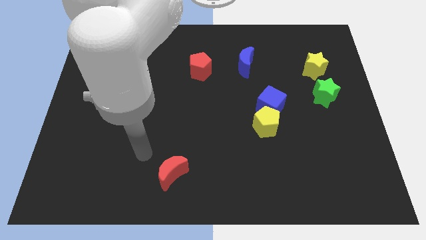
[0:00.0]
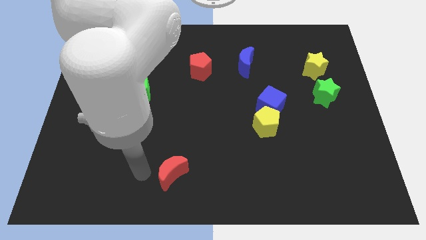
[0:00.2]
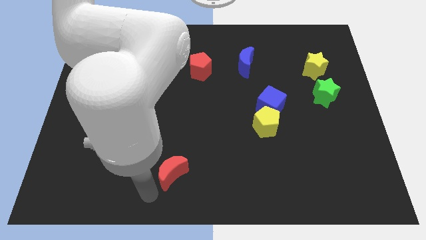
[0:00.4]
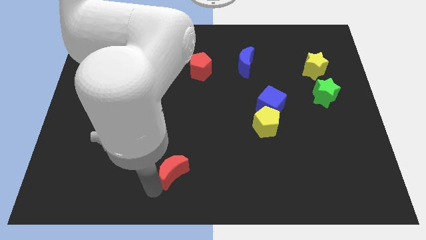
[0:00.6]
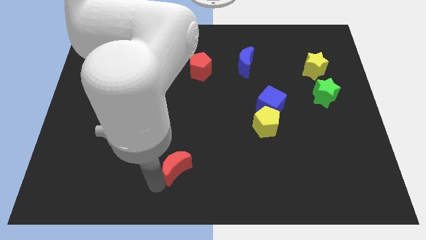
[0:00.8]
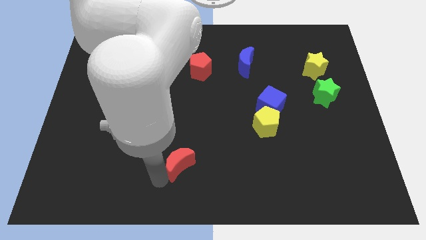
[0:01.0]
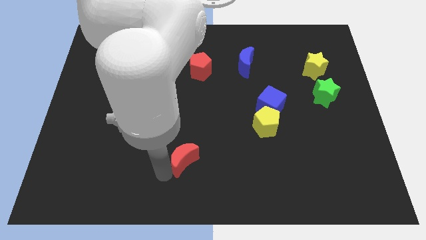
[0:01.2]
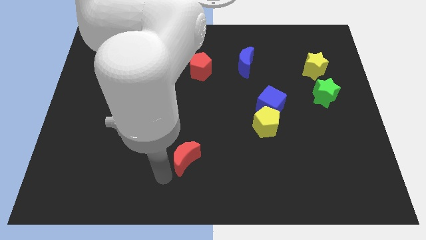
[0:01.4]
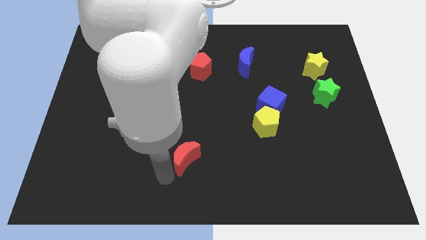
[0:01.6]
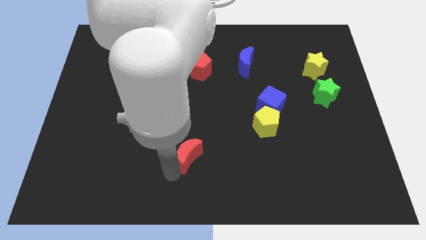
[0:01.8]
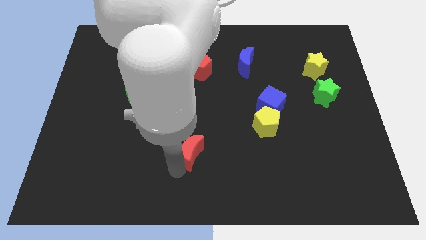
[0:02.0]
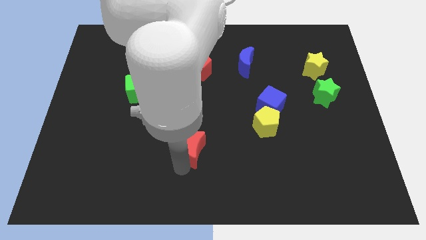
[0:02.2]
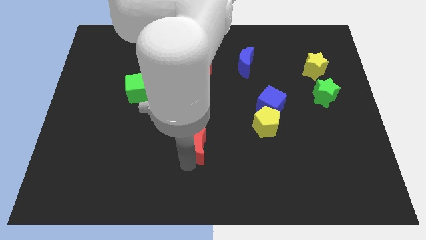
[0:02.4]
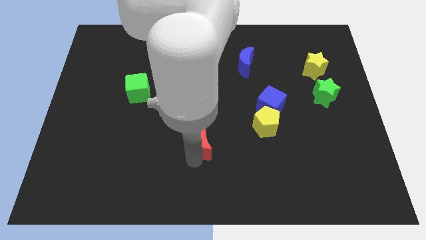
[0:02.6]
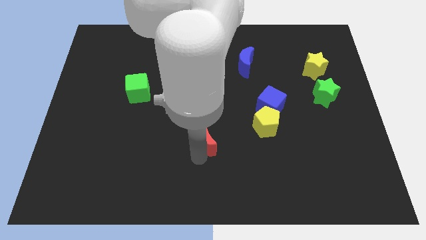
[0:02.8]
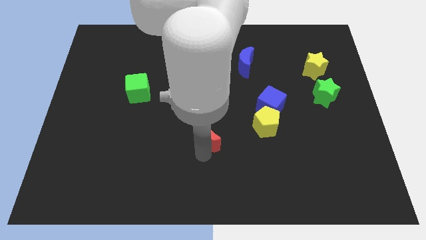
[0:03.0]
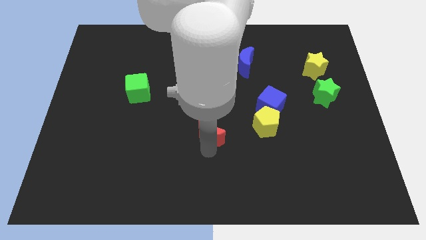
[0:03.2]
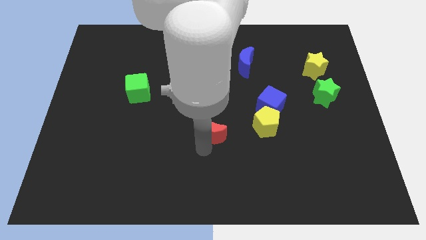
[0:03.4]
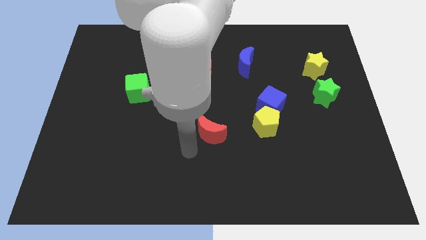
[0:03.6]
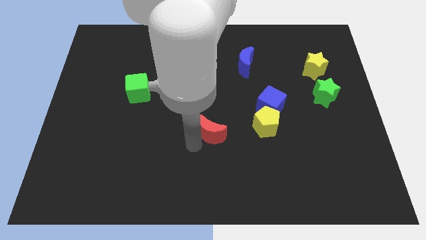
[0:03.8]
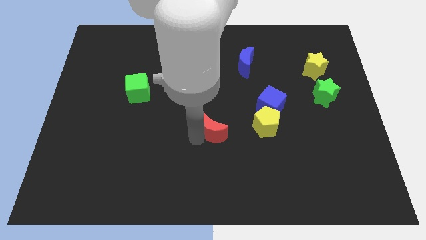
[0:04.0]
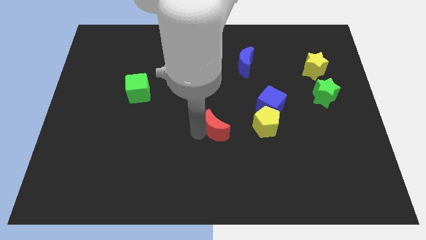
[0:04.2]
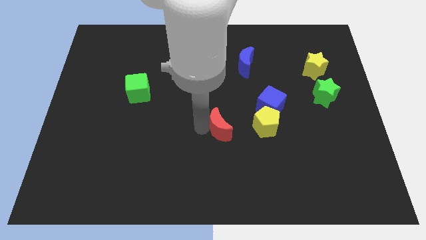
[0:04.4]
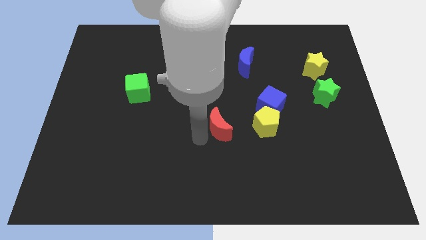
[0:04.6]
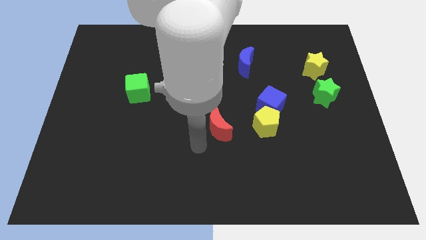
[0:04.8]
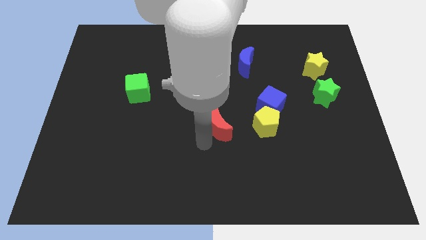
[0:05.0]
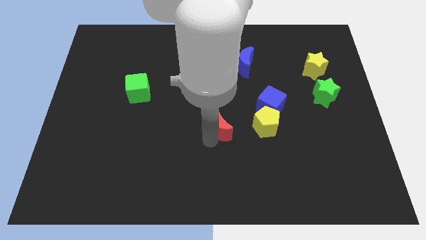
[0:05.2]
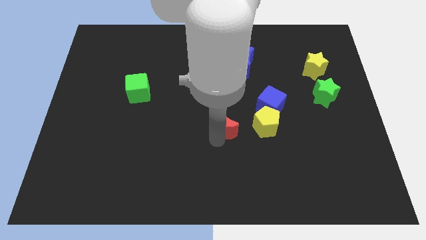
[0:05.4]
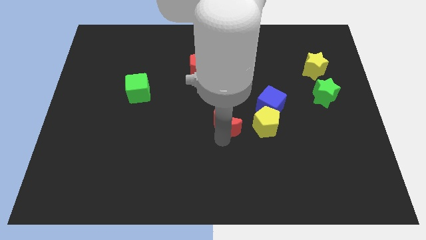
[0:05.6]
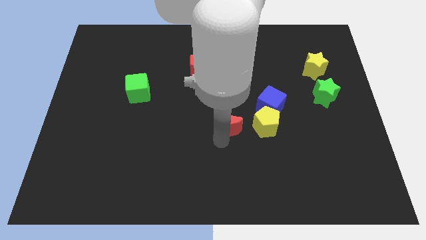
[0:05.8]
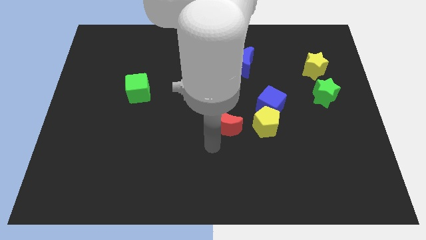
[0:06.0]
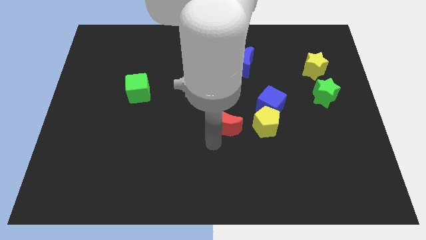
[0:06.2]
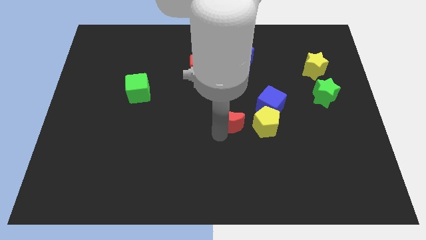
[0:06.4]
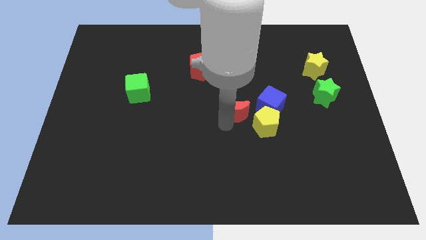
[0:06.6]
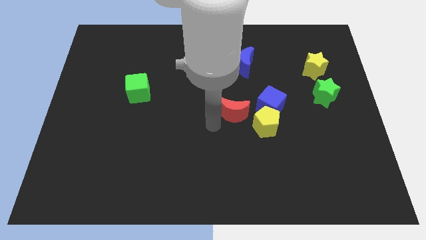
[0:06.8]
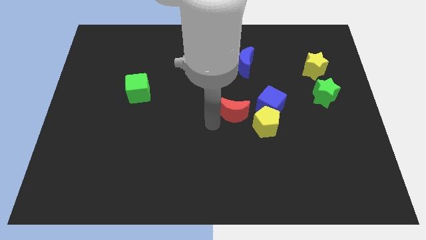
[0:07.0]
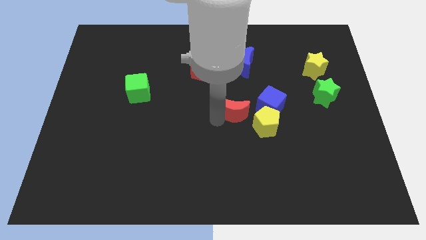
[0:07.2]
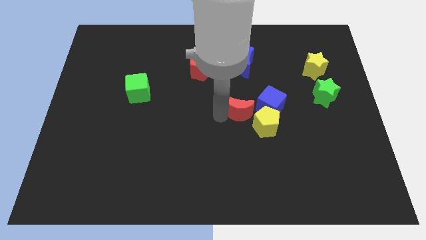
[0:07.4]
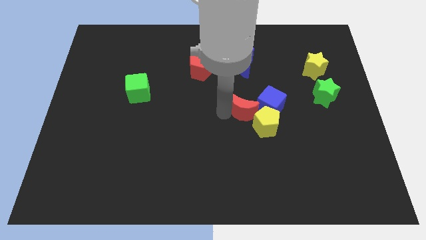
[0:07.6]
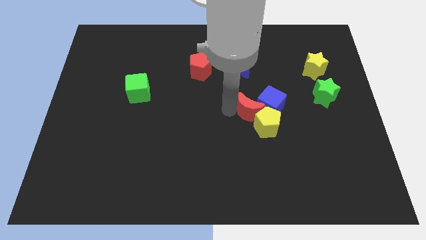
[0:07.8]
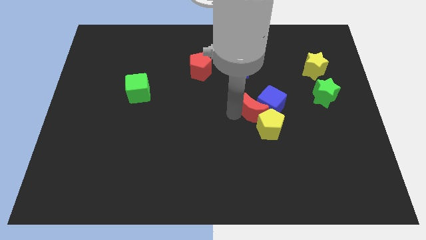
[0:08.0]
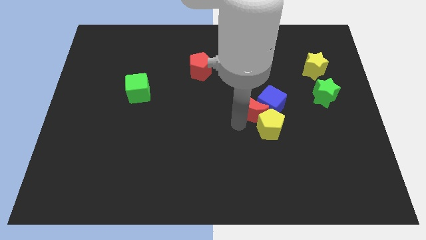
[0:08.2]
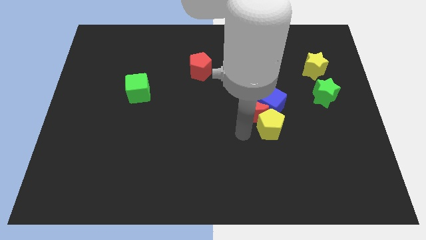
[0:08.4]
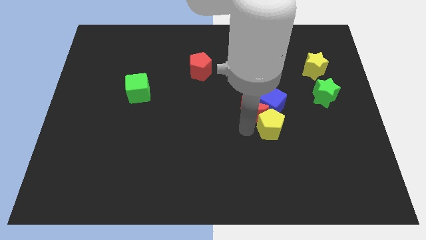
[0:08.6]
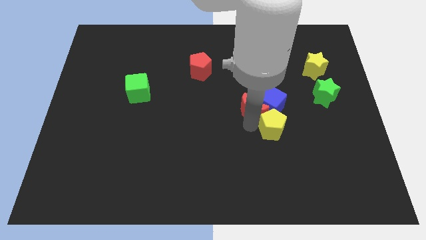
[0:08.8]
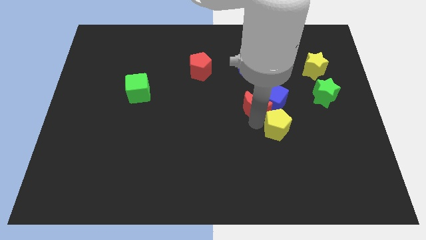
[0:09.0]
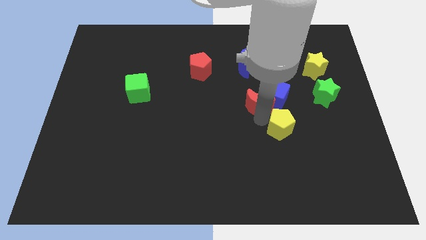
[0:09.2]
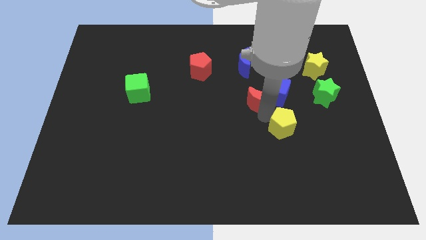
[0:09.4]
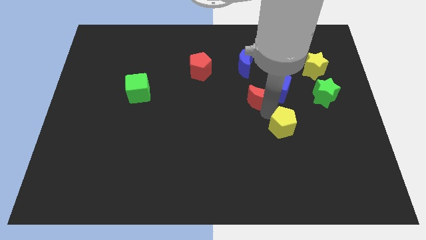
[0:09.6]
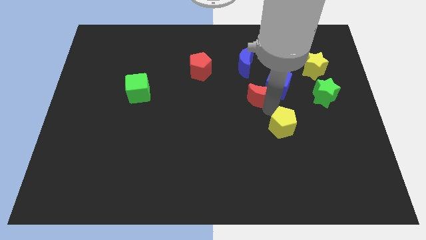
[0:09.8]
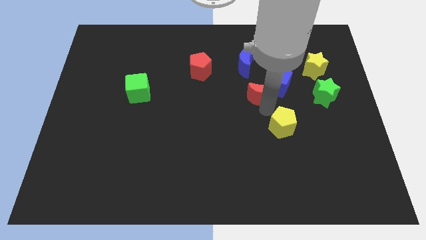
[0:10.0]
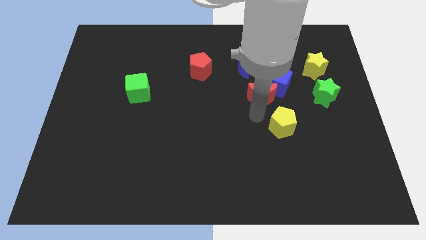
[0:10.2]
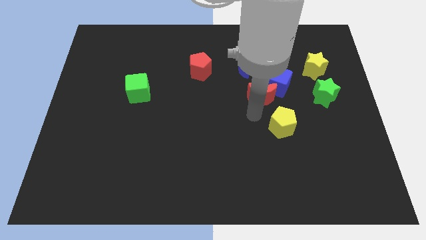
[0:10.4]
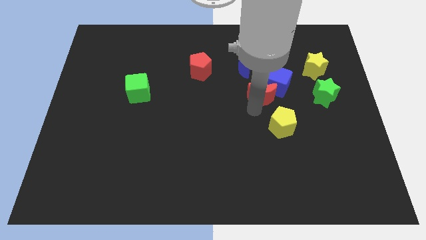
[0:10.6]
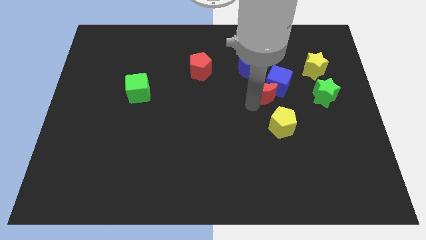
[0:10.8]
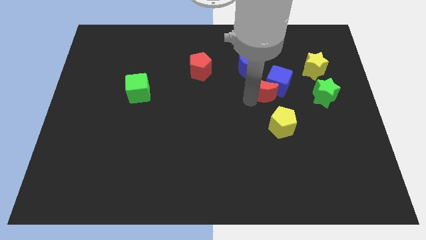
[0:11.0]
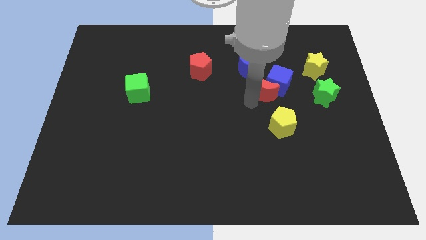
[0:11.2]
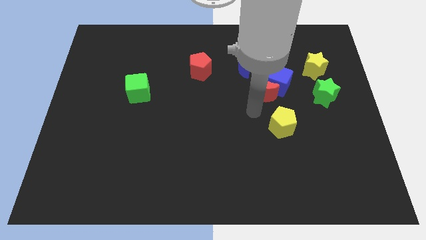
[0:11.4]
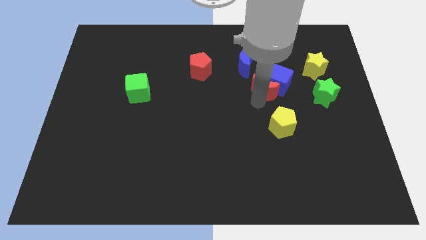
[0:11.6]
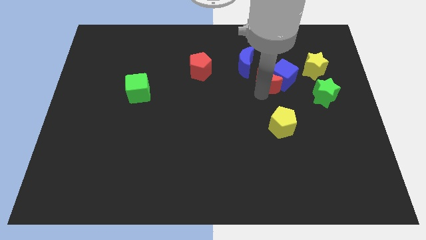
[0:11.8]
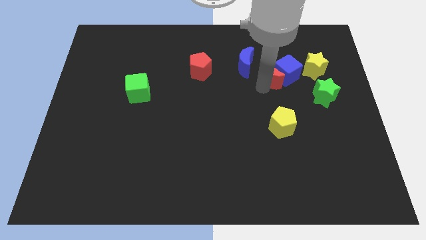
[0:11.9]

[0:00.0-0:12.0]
push the red moon right of the blue moon
